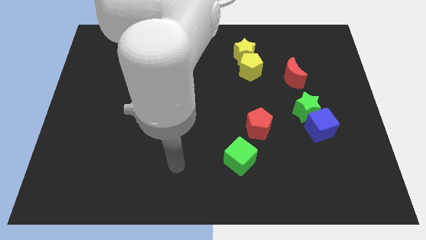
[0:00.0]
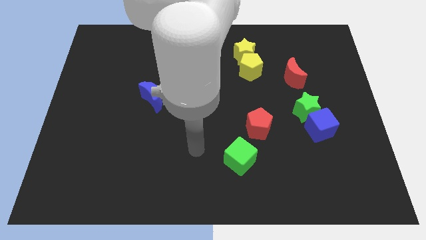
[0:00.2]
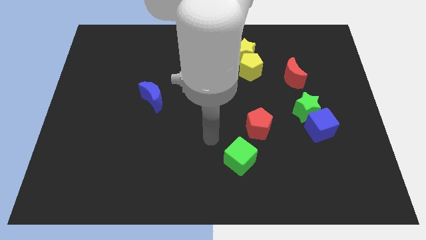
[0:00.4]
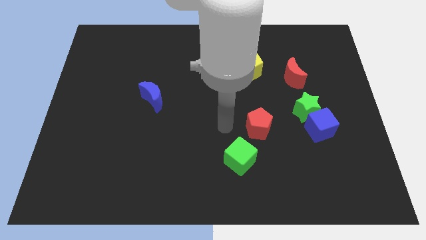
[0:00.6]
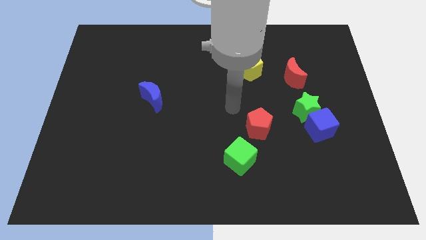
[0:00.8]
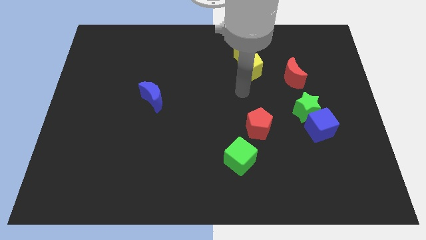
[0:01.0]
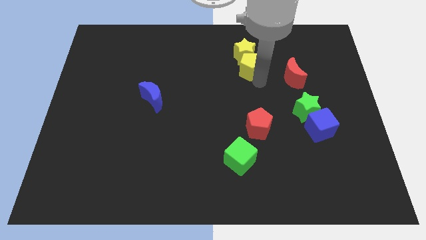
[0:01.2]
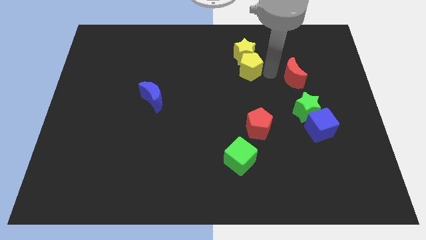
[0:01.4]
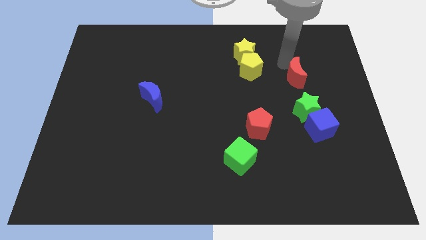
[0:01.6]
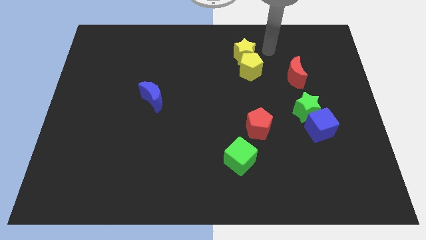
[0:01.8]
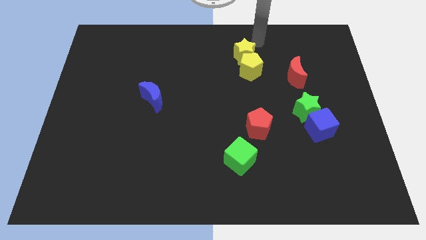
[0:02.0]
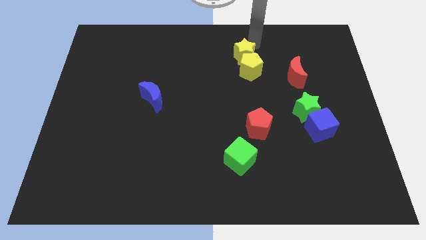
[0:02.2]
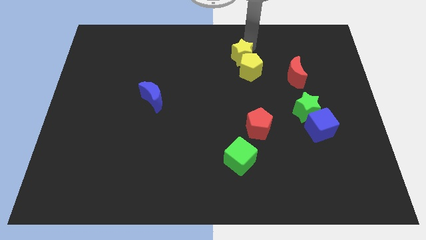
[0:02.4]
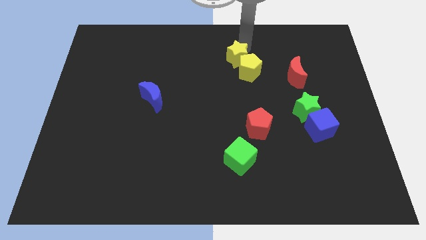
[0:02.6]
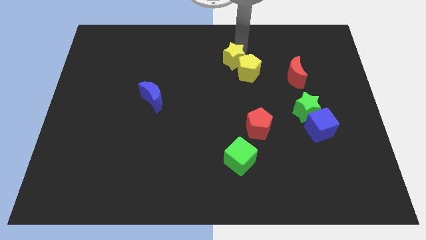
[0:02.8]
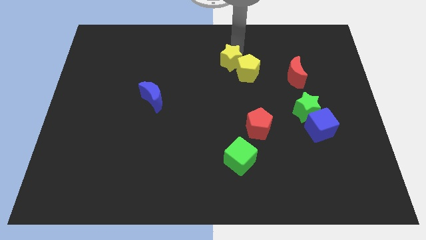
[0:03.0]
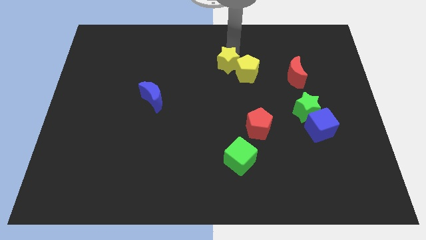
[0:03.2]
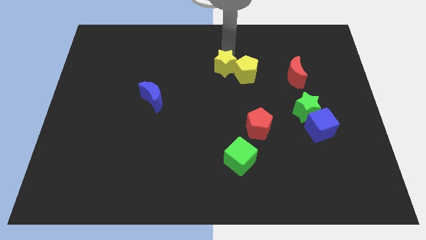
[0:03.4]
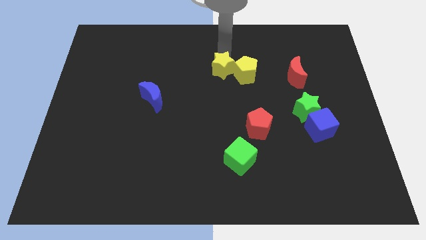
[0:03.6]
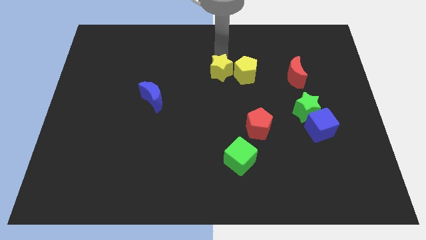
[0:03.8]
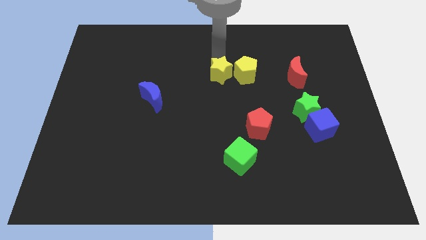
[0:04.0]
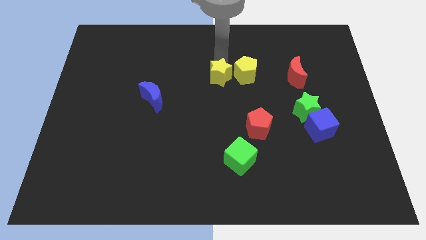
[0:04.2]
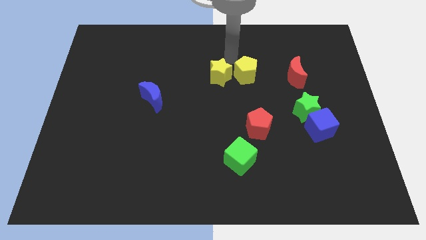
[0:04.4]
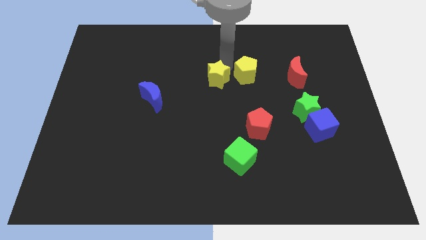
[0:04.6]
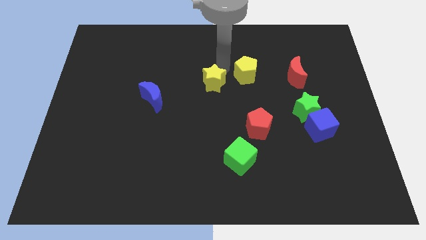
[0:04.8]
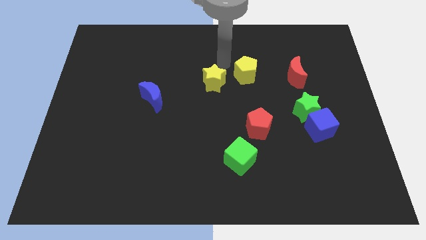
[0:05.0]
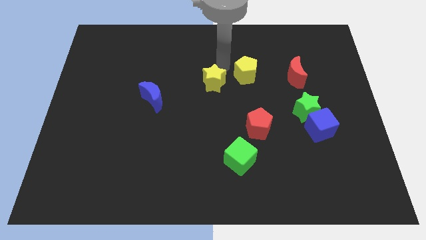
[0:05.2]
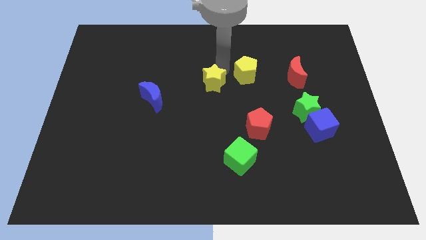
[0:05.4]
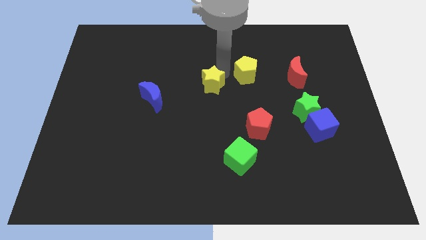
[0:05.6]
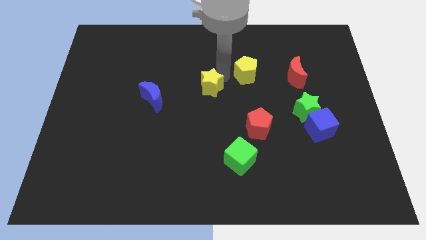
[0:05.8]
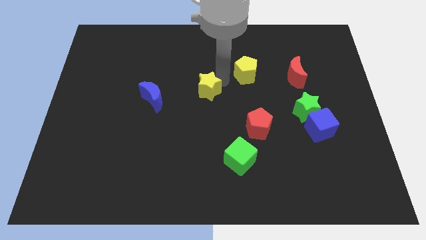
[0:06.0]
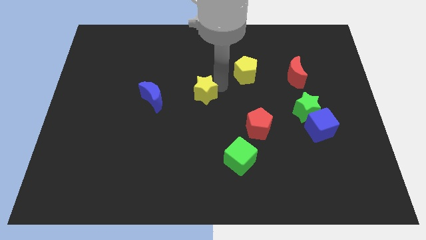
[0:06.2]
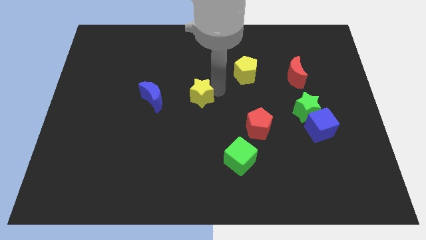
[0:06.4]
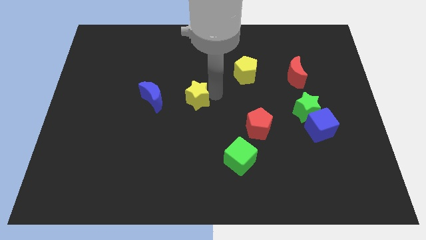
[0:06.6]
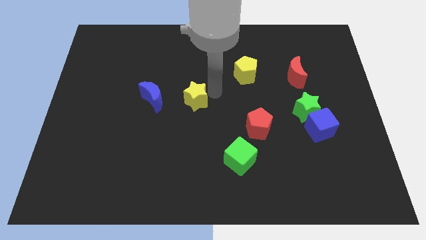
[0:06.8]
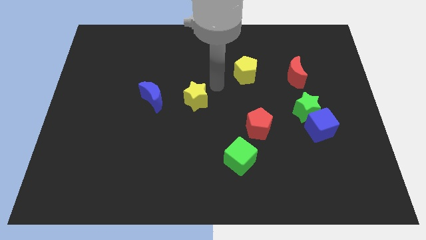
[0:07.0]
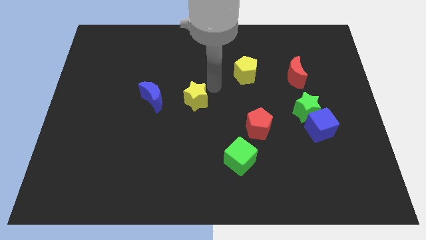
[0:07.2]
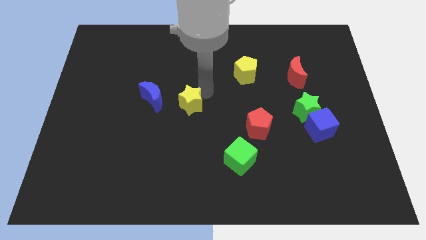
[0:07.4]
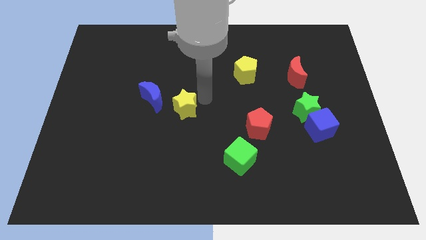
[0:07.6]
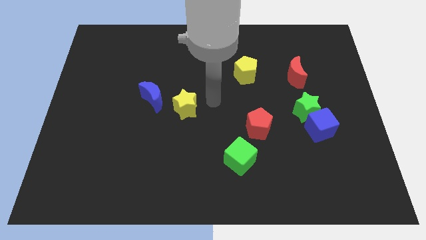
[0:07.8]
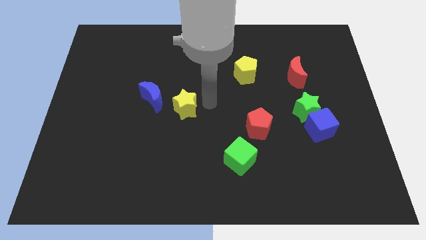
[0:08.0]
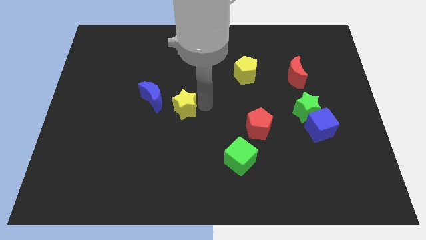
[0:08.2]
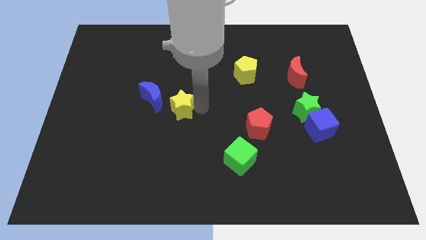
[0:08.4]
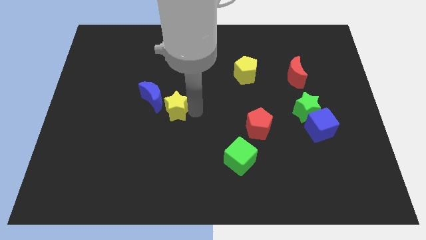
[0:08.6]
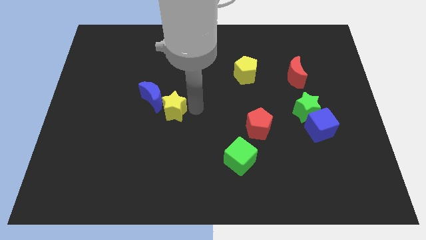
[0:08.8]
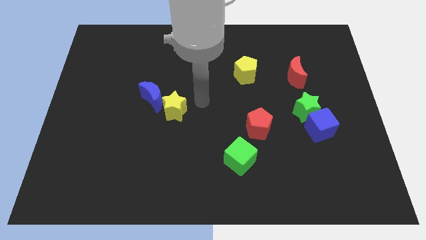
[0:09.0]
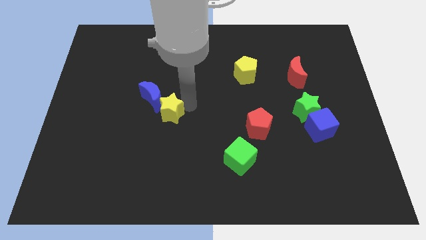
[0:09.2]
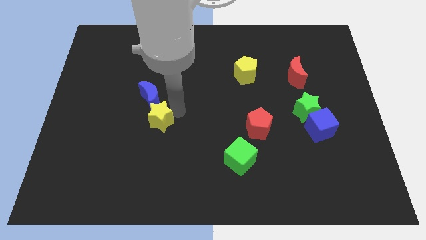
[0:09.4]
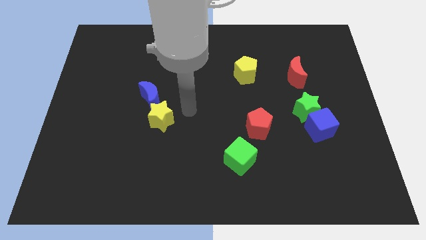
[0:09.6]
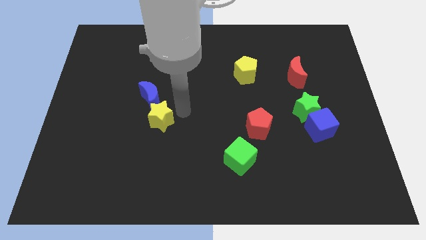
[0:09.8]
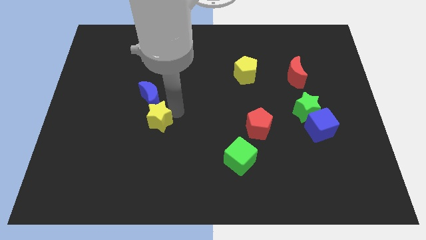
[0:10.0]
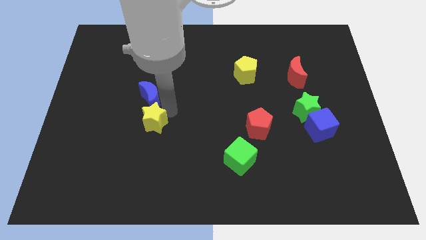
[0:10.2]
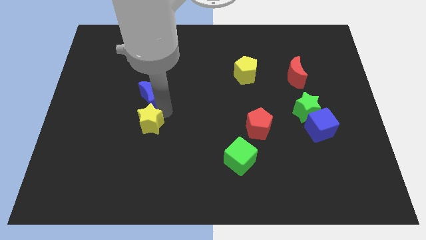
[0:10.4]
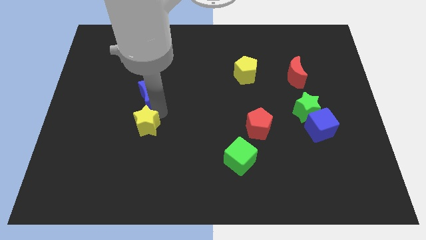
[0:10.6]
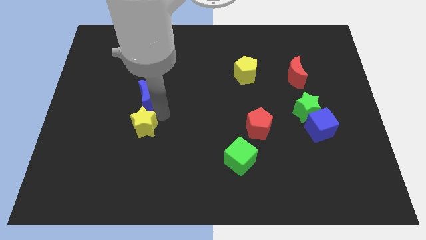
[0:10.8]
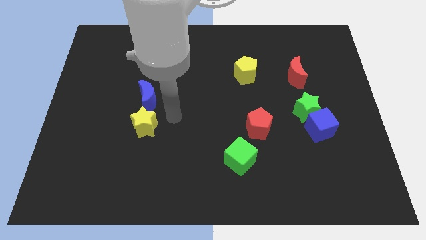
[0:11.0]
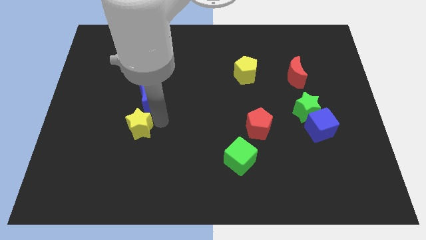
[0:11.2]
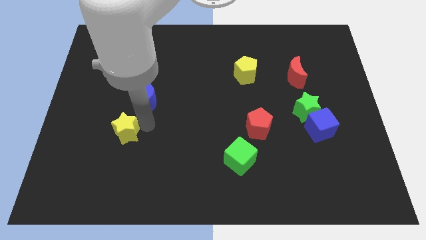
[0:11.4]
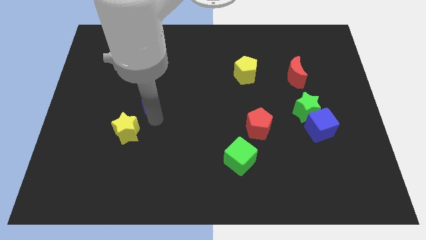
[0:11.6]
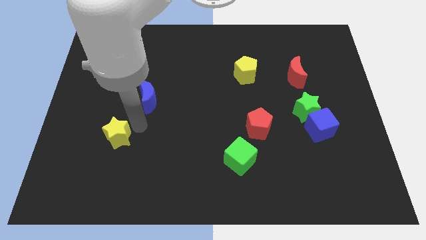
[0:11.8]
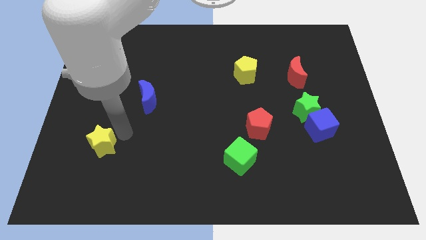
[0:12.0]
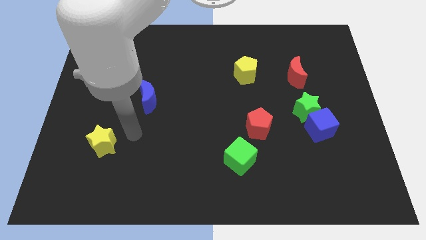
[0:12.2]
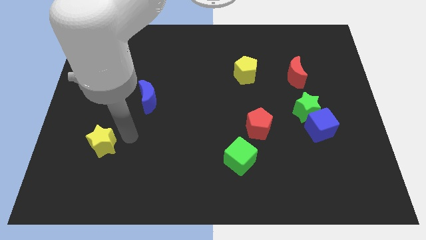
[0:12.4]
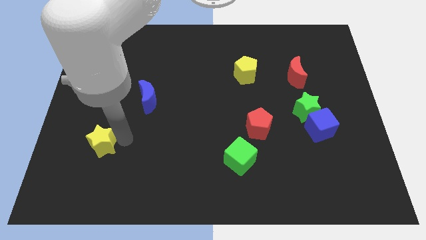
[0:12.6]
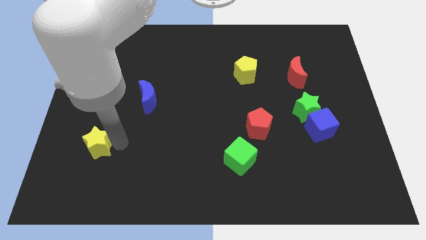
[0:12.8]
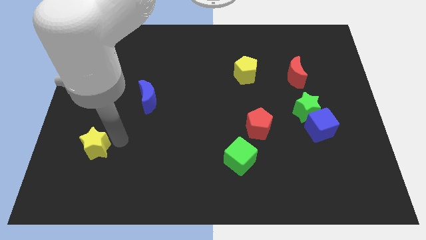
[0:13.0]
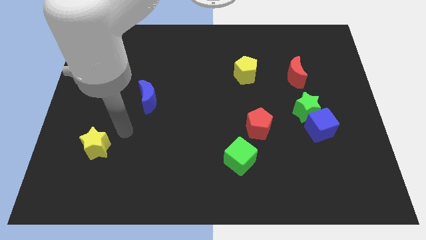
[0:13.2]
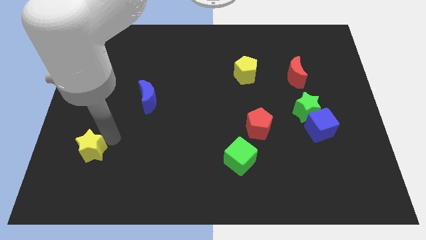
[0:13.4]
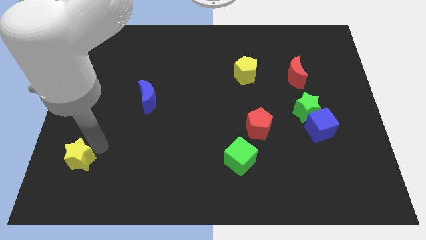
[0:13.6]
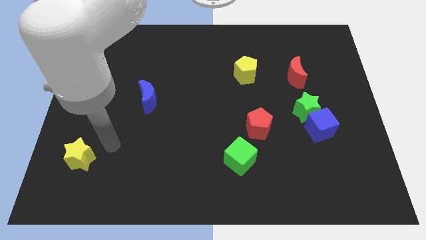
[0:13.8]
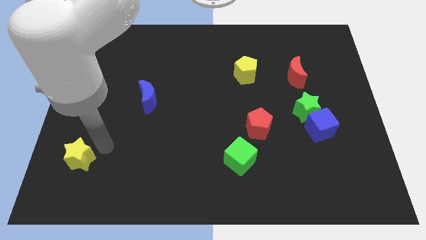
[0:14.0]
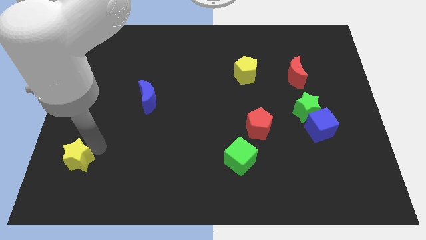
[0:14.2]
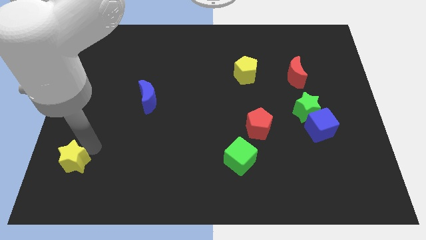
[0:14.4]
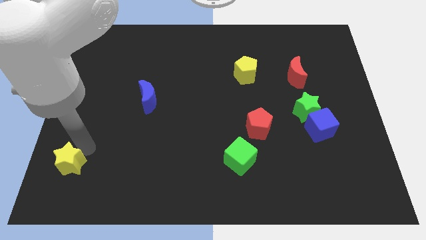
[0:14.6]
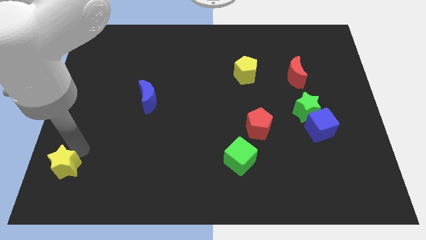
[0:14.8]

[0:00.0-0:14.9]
slide the yellow star to the bottom left of the board
